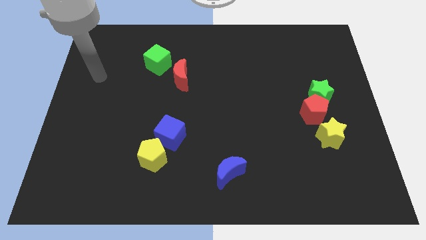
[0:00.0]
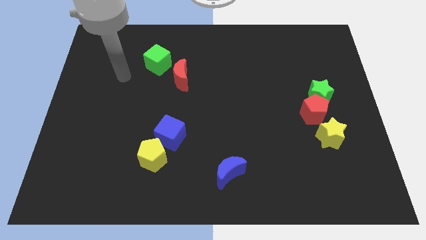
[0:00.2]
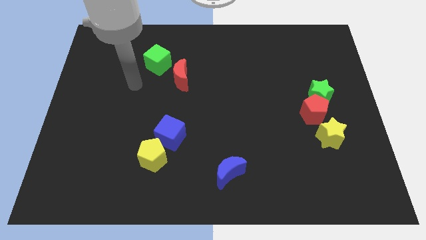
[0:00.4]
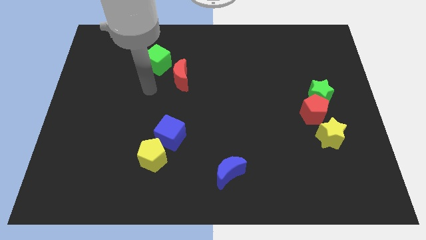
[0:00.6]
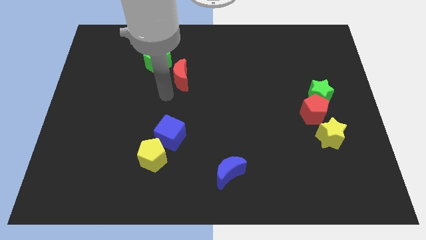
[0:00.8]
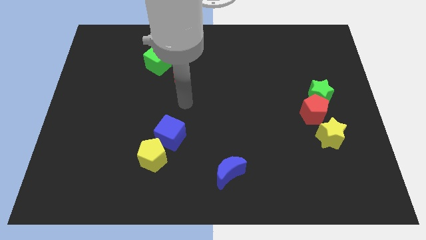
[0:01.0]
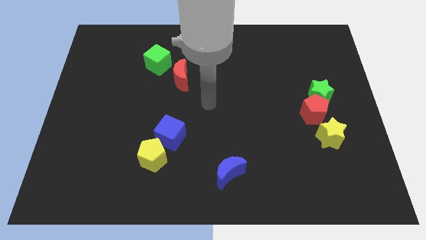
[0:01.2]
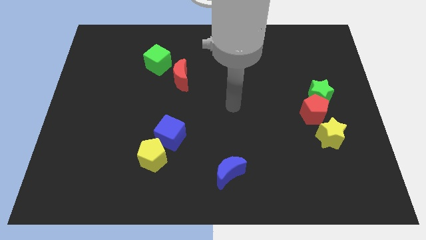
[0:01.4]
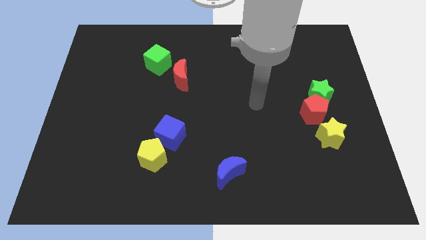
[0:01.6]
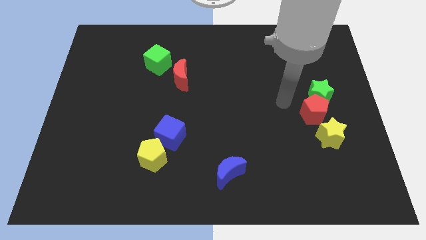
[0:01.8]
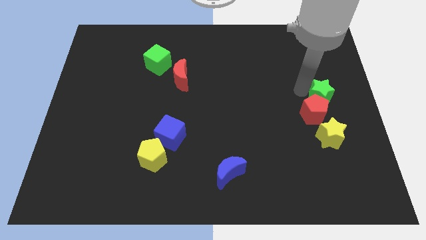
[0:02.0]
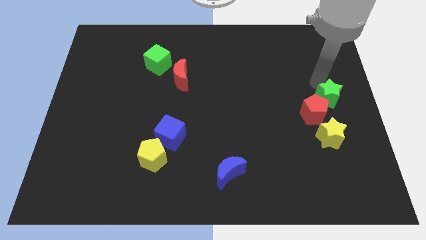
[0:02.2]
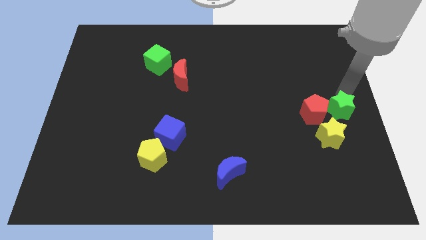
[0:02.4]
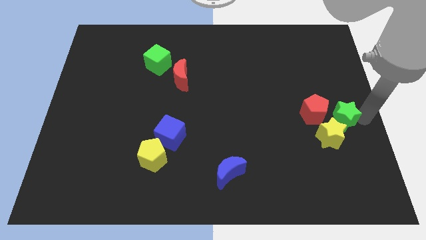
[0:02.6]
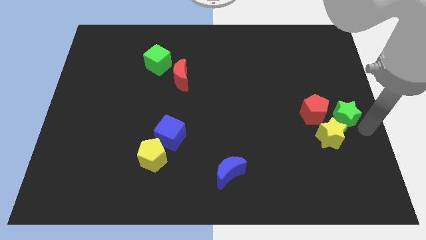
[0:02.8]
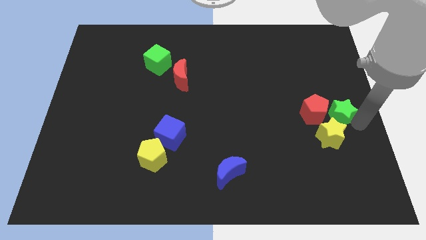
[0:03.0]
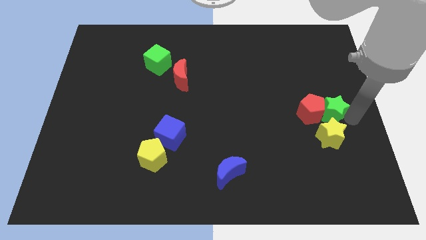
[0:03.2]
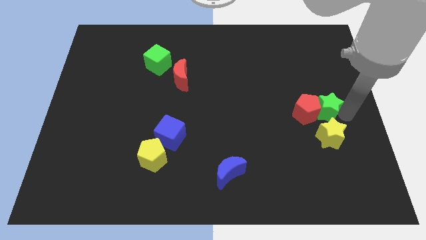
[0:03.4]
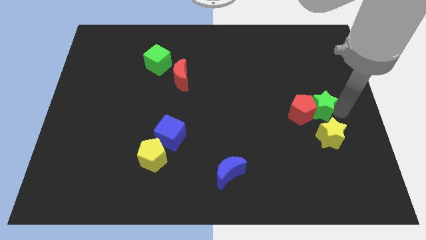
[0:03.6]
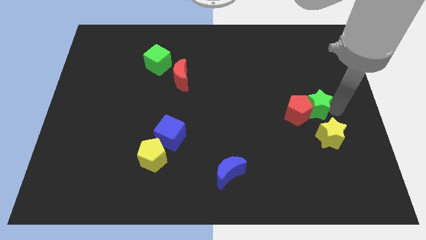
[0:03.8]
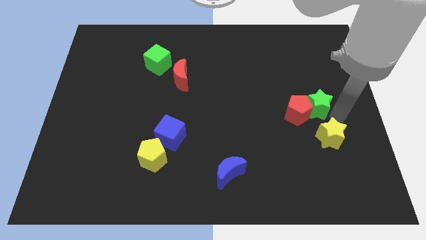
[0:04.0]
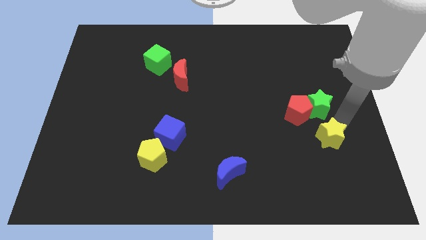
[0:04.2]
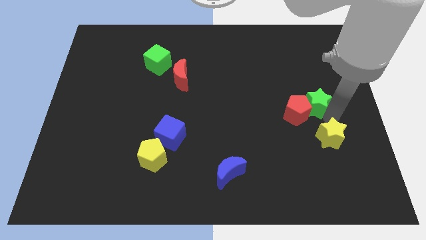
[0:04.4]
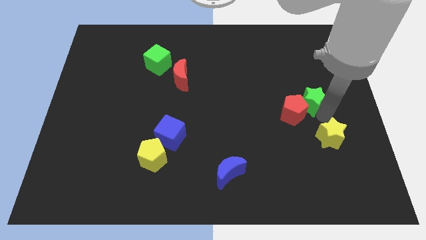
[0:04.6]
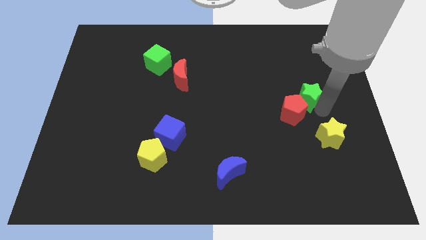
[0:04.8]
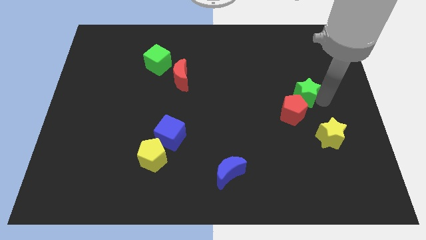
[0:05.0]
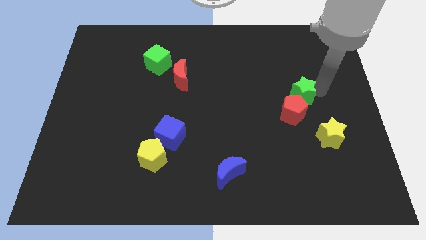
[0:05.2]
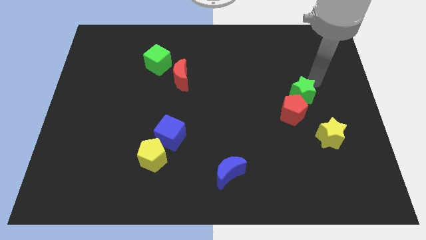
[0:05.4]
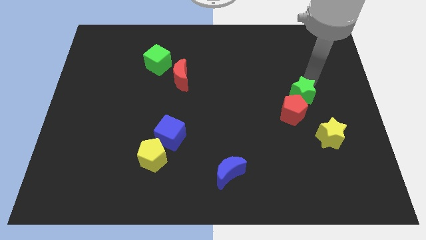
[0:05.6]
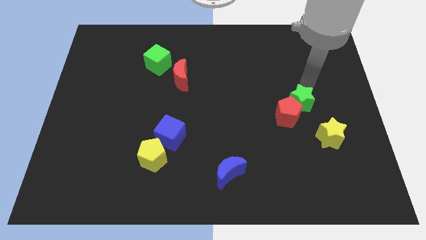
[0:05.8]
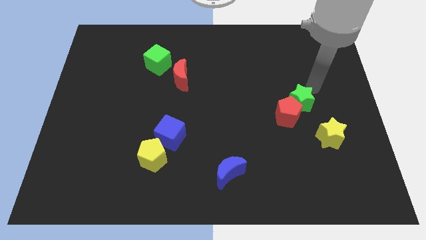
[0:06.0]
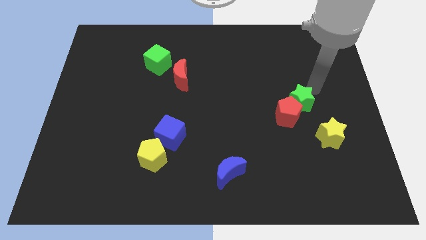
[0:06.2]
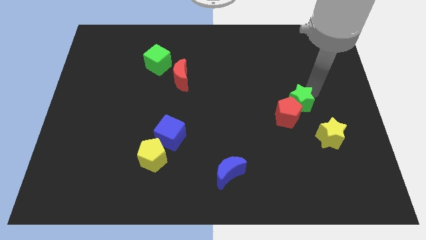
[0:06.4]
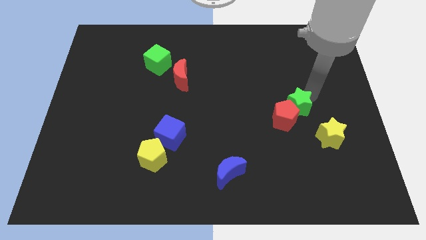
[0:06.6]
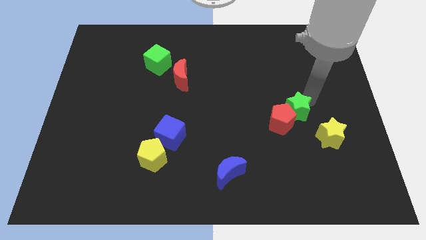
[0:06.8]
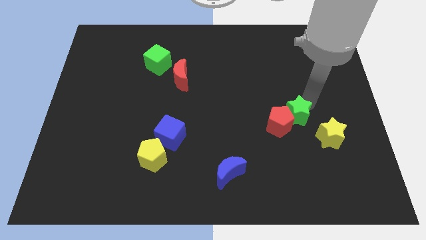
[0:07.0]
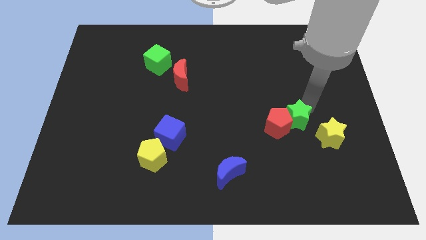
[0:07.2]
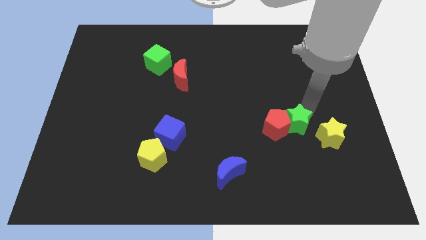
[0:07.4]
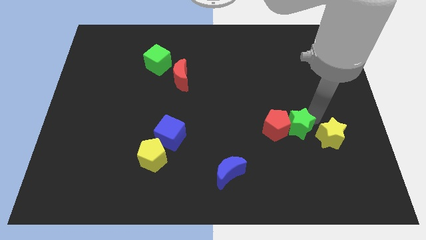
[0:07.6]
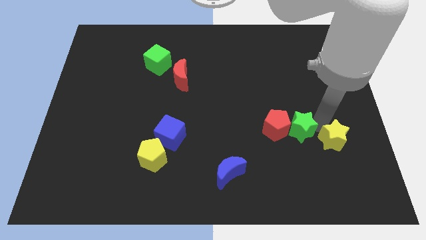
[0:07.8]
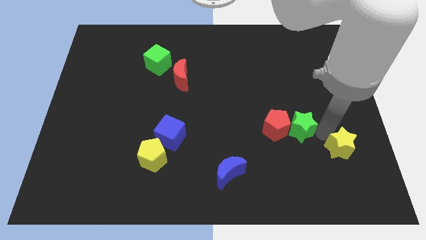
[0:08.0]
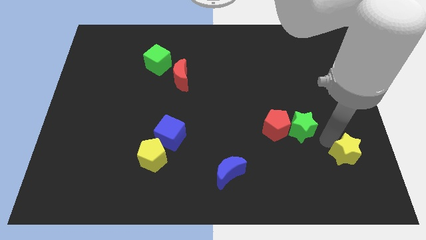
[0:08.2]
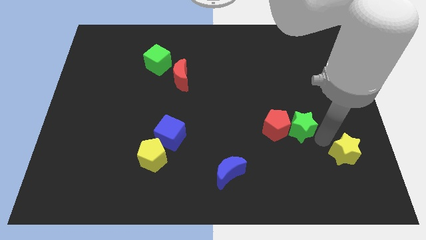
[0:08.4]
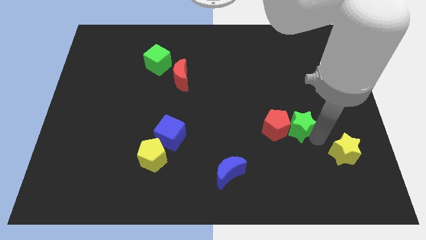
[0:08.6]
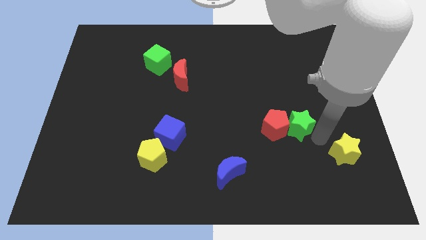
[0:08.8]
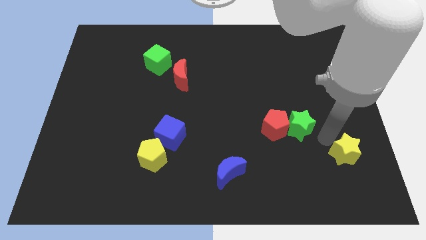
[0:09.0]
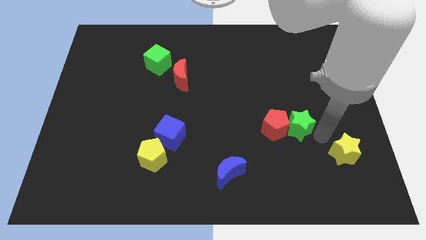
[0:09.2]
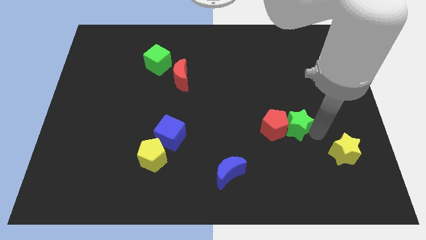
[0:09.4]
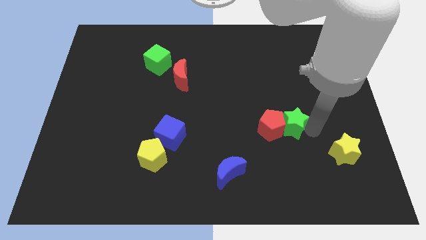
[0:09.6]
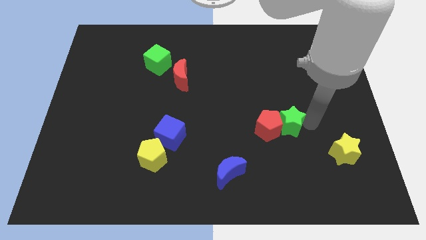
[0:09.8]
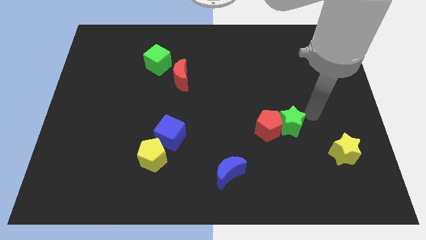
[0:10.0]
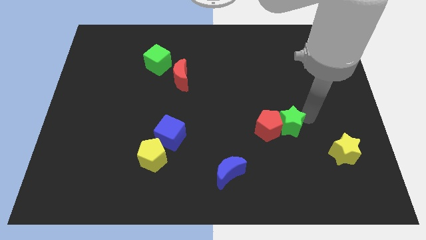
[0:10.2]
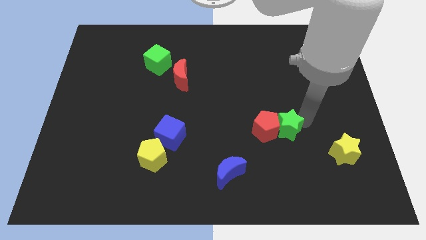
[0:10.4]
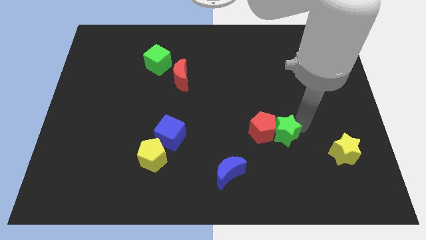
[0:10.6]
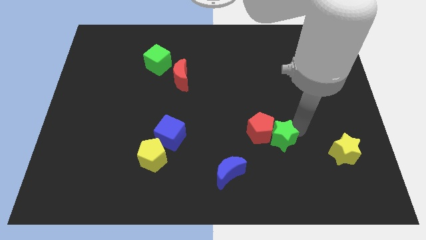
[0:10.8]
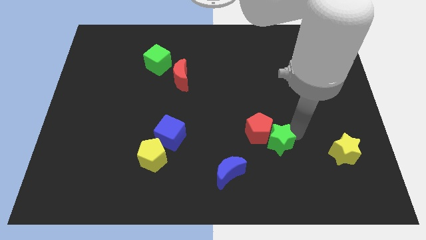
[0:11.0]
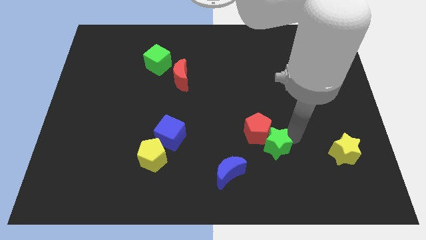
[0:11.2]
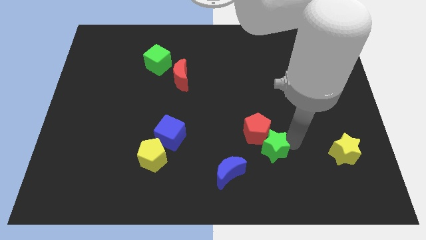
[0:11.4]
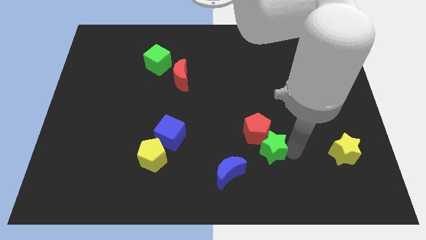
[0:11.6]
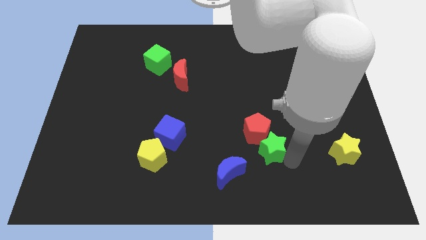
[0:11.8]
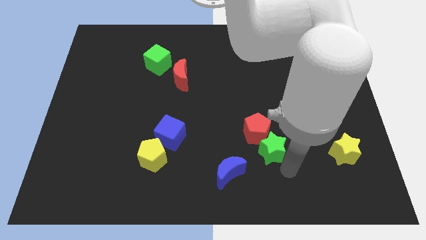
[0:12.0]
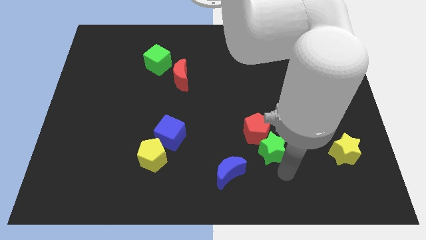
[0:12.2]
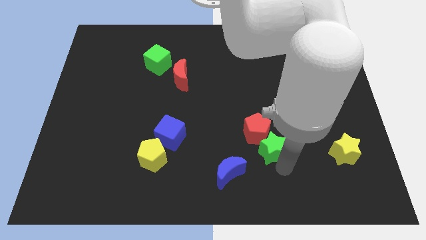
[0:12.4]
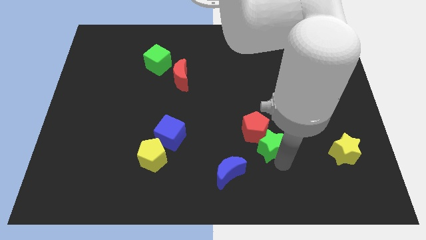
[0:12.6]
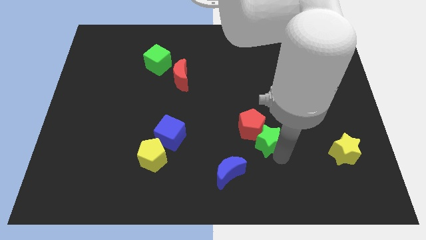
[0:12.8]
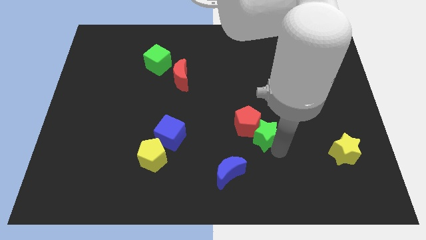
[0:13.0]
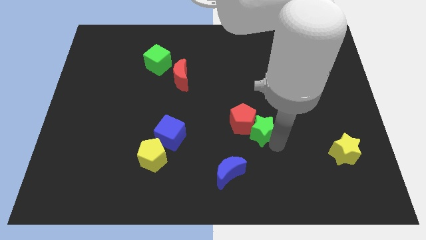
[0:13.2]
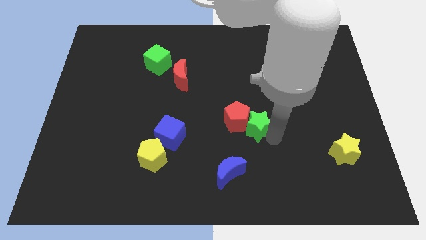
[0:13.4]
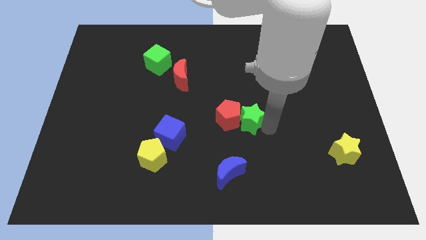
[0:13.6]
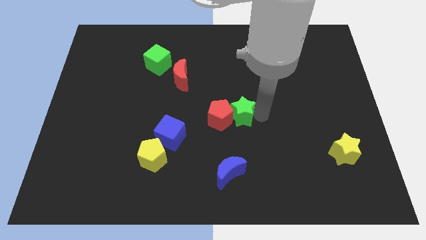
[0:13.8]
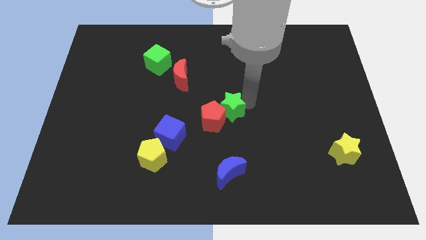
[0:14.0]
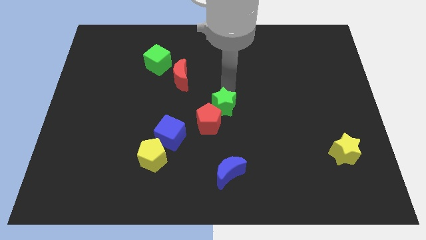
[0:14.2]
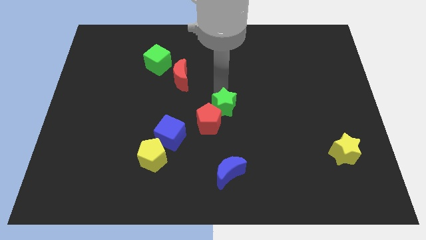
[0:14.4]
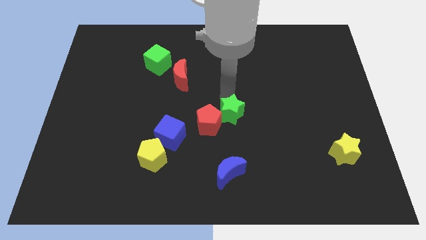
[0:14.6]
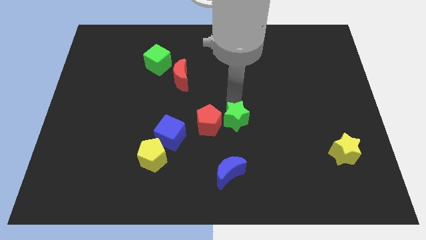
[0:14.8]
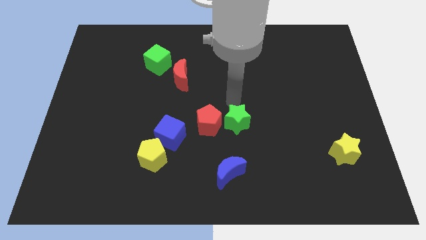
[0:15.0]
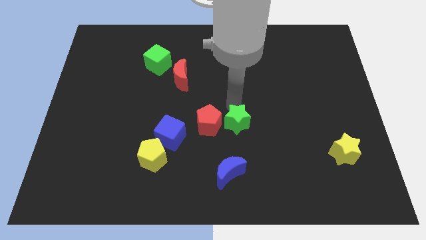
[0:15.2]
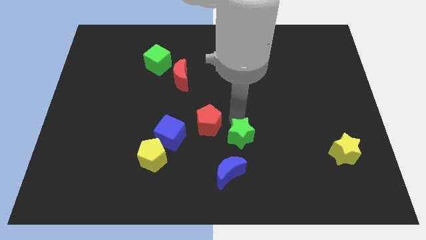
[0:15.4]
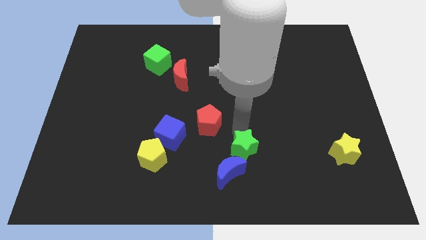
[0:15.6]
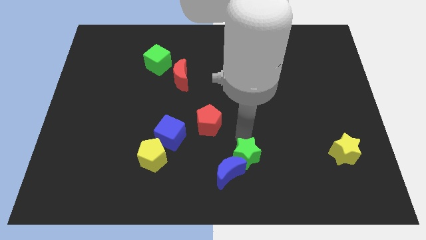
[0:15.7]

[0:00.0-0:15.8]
move the green star towards the blue moon
